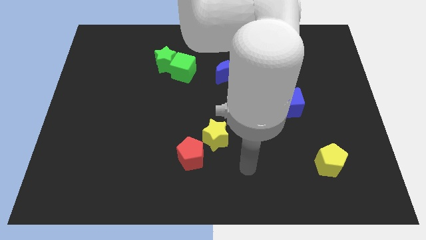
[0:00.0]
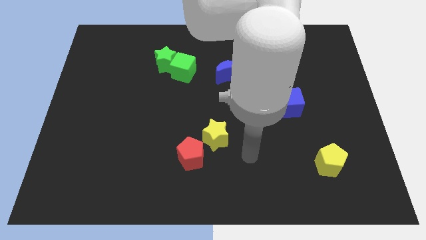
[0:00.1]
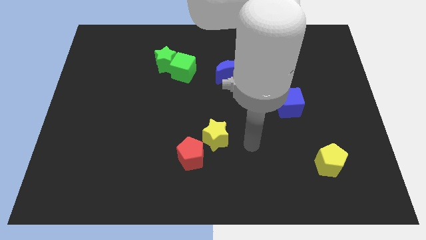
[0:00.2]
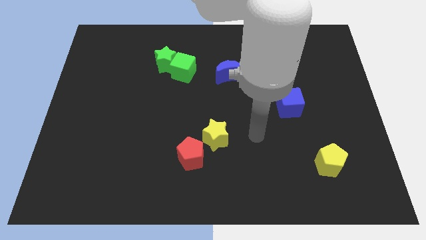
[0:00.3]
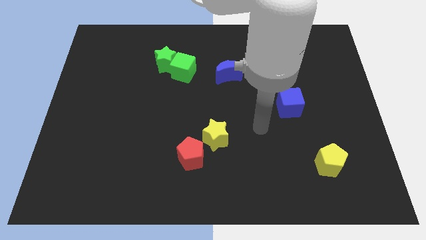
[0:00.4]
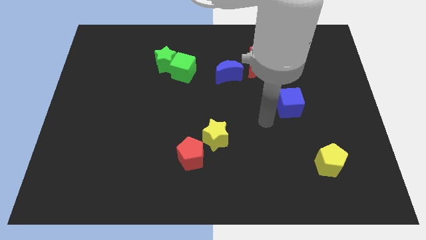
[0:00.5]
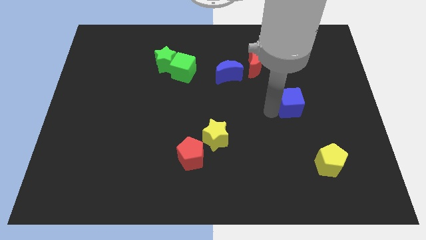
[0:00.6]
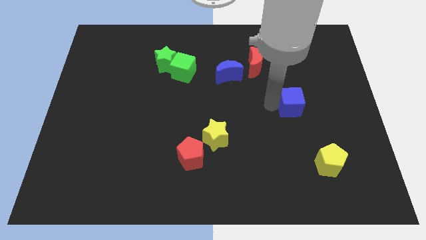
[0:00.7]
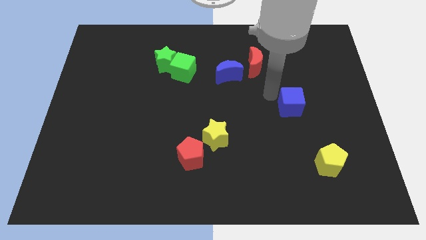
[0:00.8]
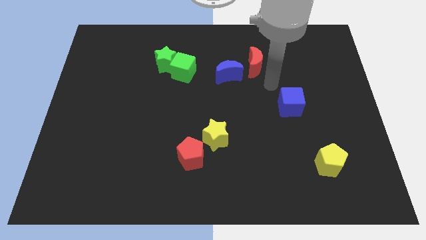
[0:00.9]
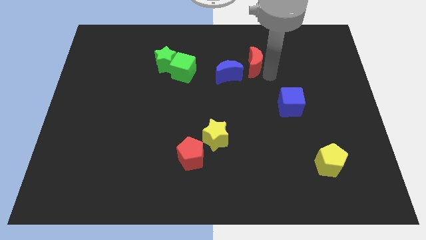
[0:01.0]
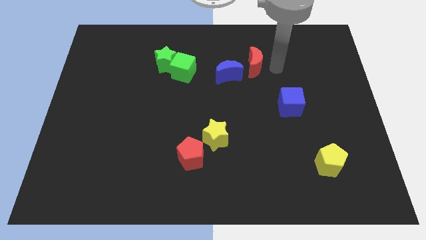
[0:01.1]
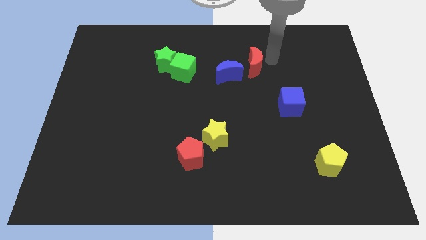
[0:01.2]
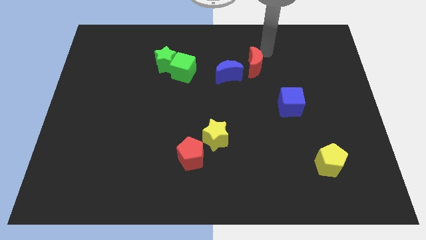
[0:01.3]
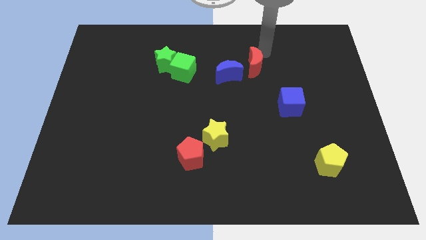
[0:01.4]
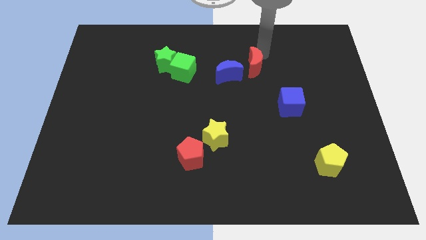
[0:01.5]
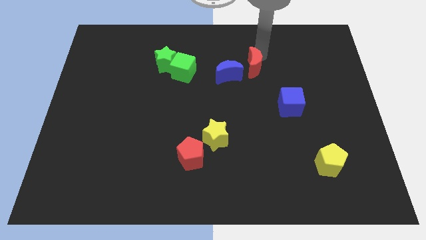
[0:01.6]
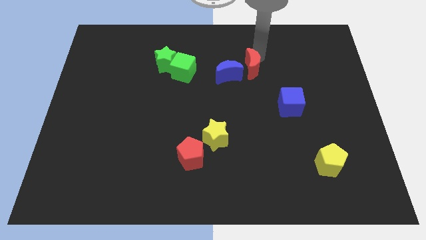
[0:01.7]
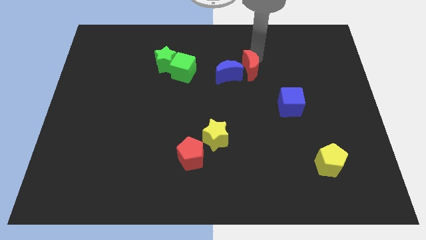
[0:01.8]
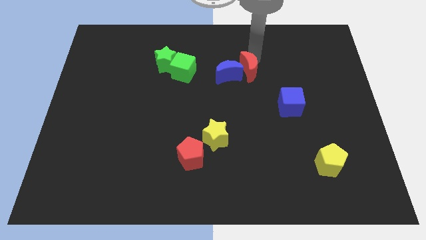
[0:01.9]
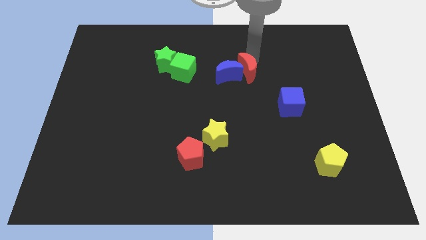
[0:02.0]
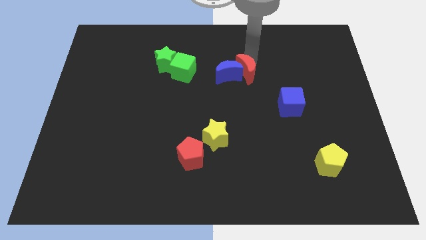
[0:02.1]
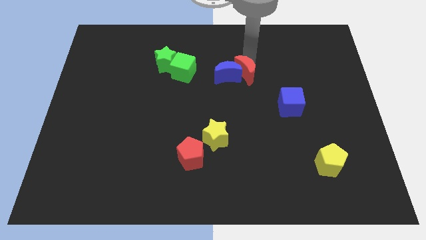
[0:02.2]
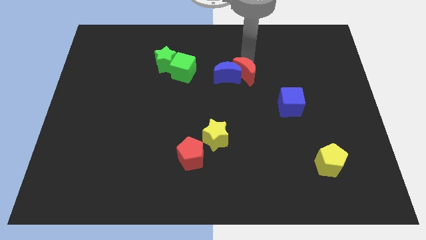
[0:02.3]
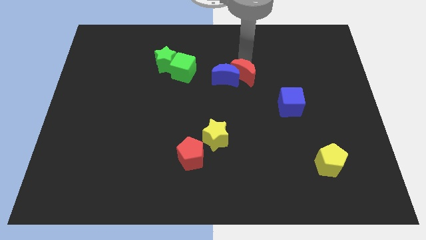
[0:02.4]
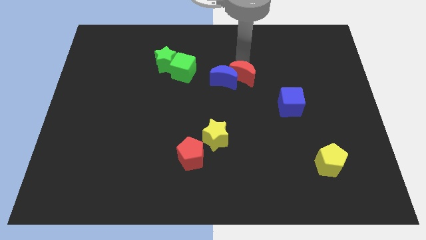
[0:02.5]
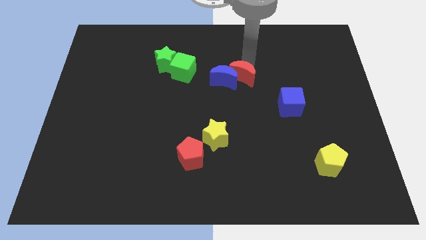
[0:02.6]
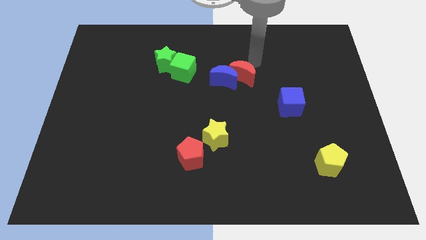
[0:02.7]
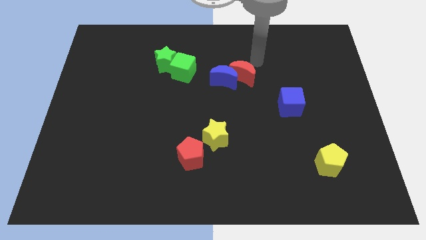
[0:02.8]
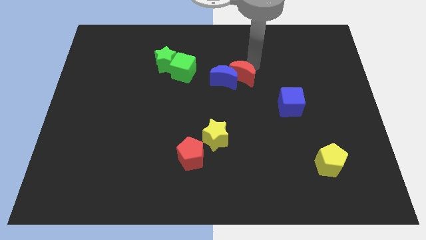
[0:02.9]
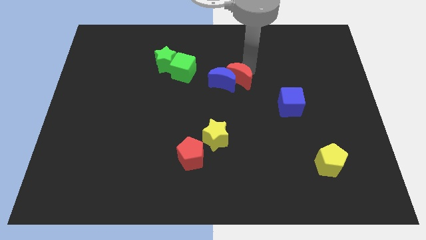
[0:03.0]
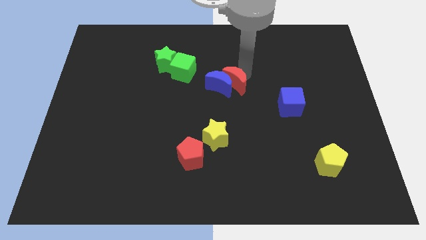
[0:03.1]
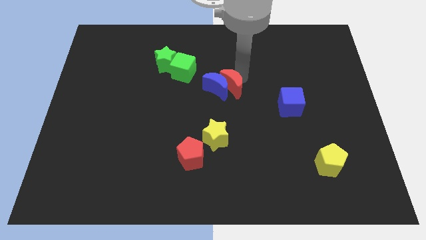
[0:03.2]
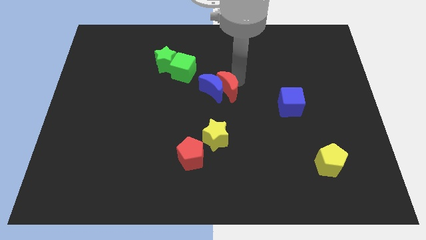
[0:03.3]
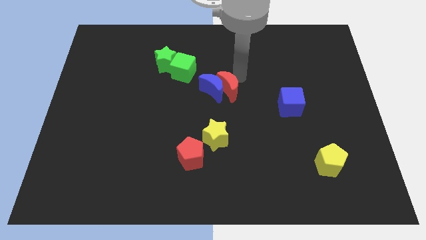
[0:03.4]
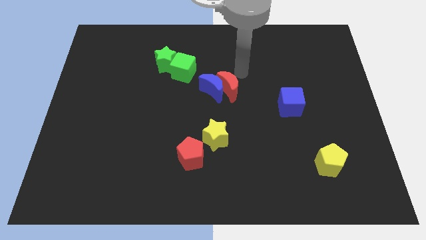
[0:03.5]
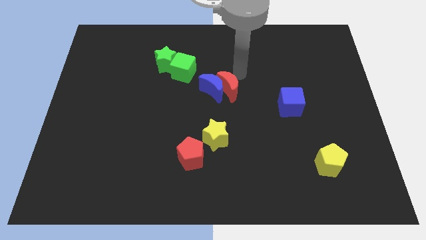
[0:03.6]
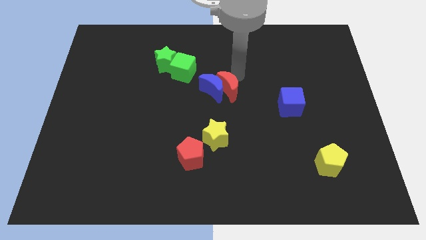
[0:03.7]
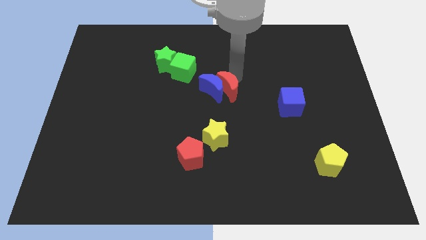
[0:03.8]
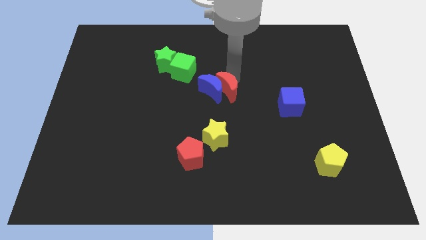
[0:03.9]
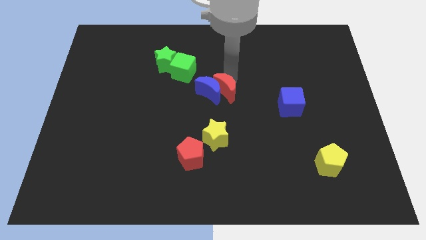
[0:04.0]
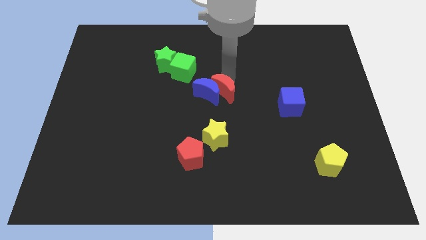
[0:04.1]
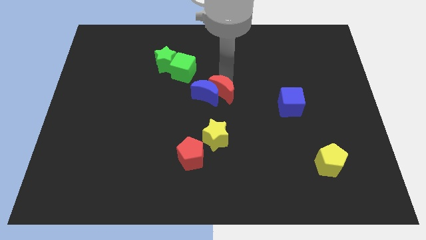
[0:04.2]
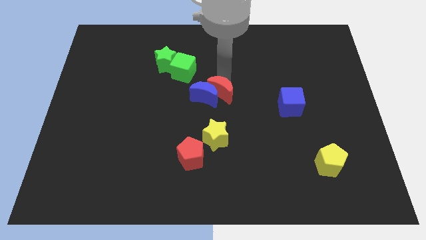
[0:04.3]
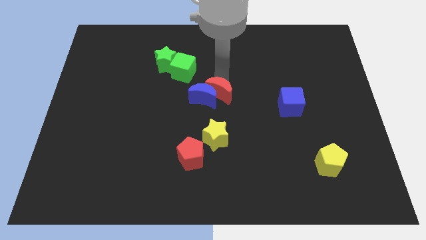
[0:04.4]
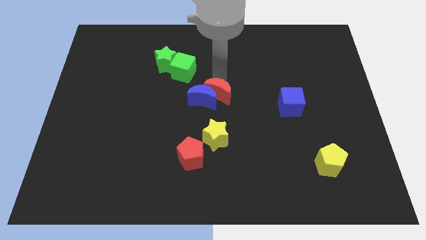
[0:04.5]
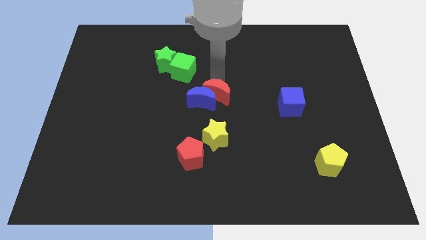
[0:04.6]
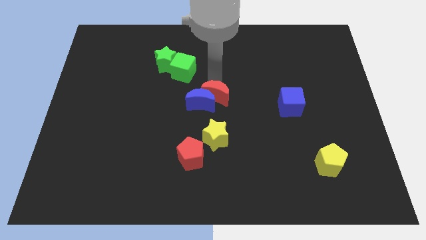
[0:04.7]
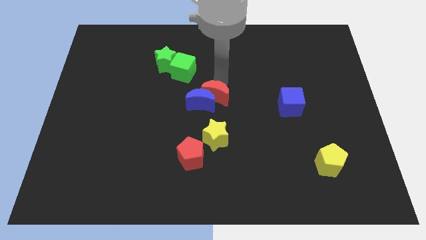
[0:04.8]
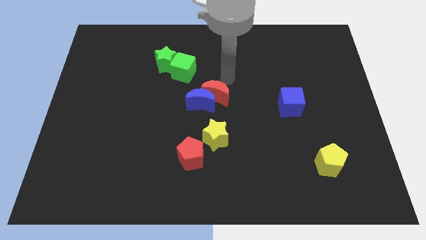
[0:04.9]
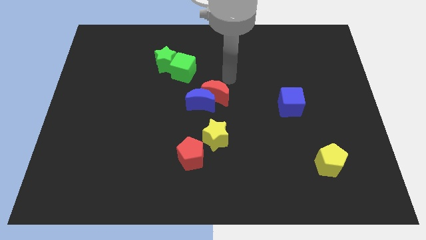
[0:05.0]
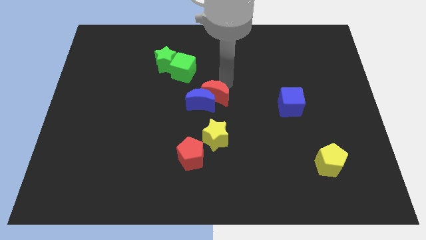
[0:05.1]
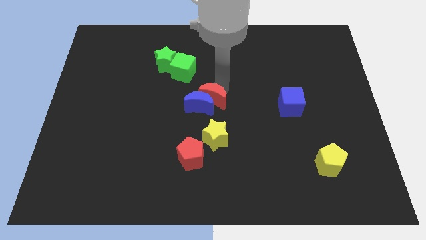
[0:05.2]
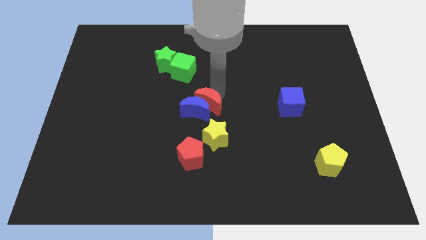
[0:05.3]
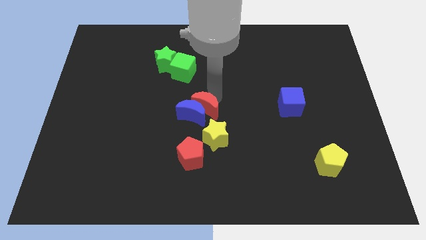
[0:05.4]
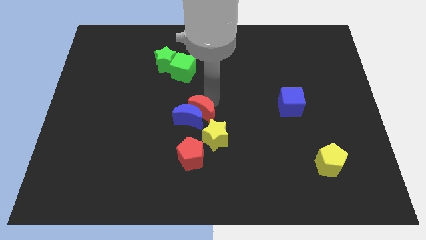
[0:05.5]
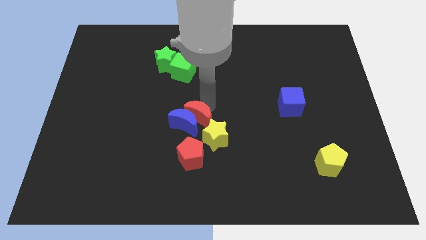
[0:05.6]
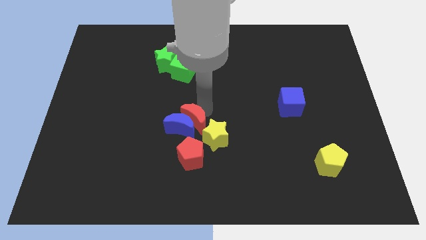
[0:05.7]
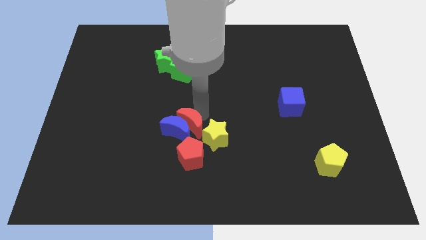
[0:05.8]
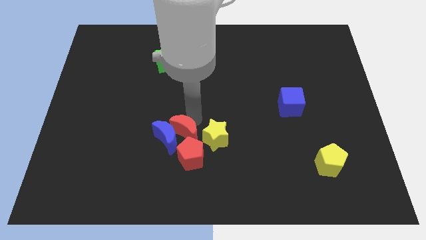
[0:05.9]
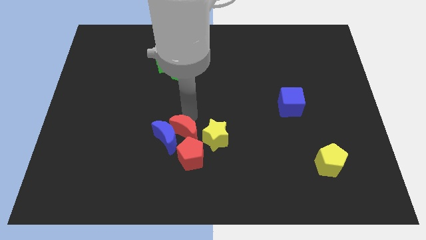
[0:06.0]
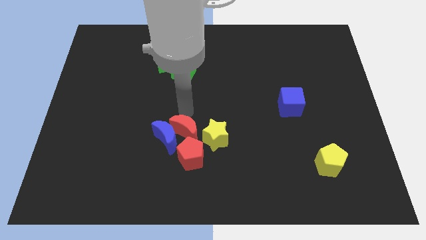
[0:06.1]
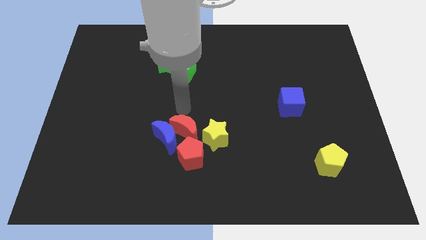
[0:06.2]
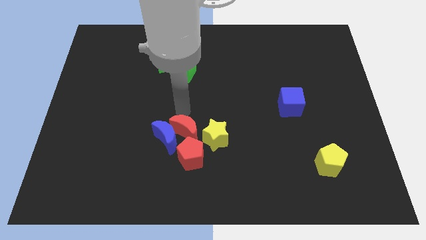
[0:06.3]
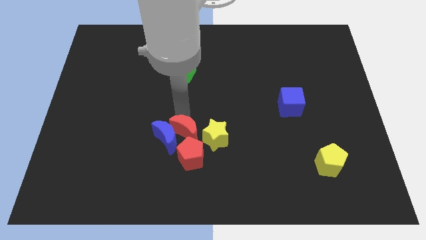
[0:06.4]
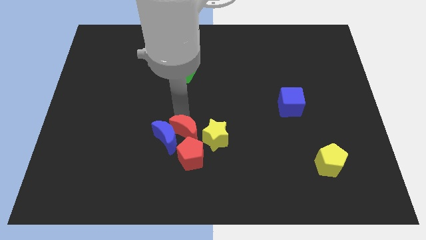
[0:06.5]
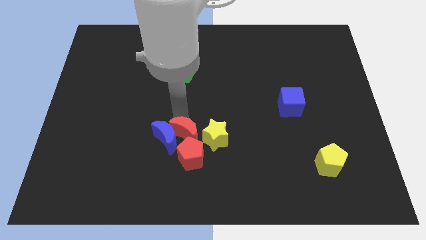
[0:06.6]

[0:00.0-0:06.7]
move the red moon to the red pentagon

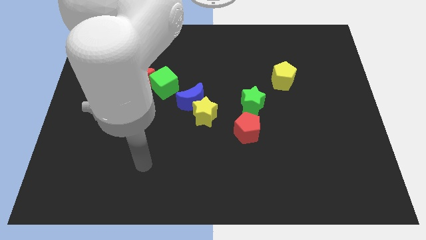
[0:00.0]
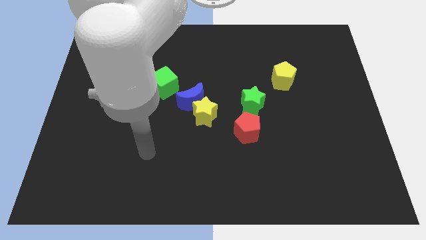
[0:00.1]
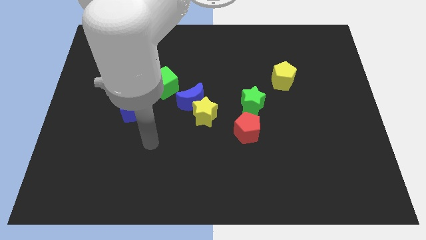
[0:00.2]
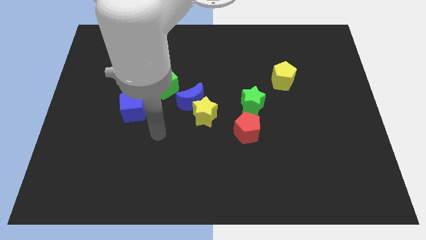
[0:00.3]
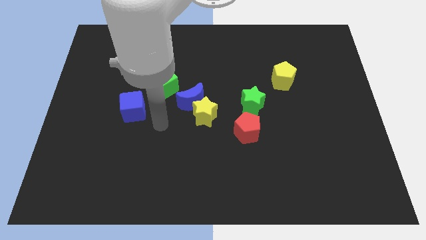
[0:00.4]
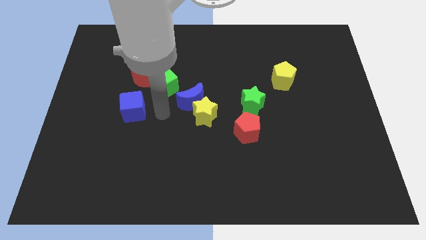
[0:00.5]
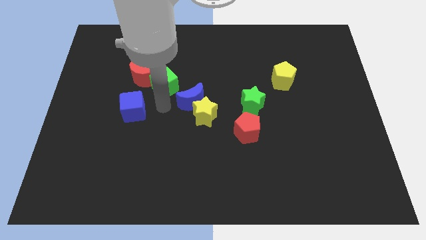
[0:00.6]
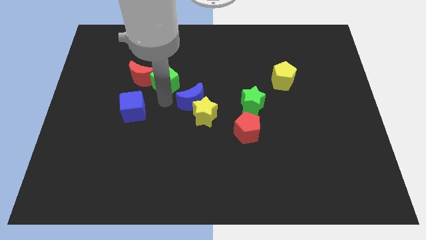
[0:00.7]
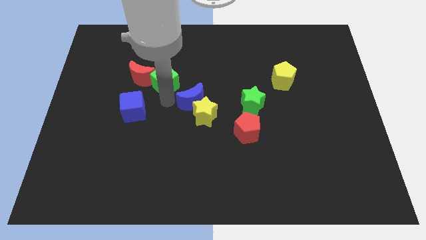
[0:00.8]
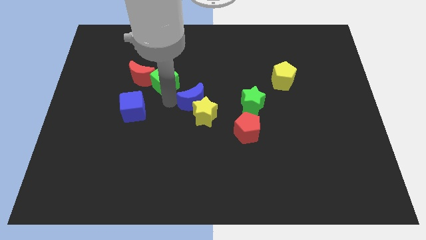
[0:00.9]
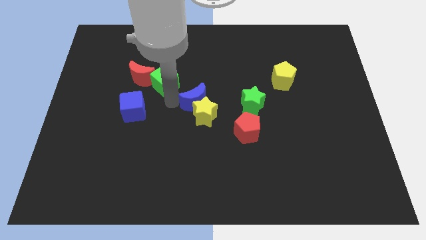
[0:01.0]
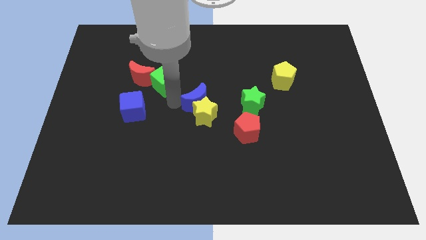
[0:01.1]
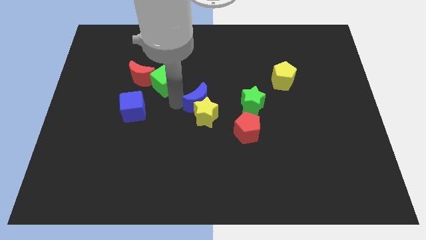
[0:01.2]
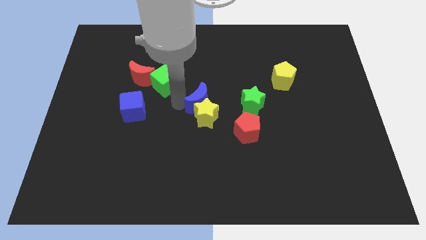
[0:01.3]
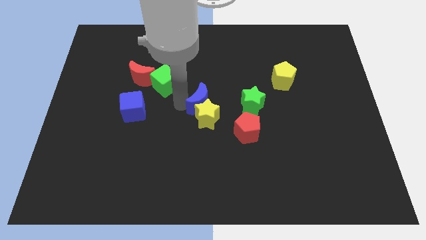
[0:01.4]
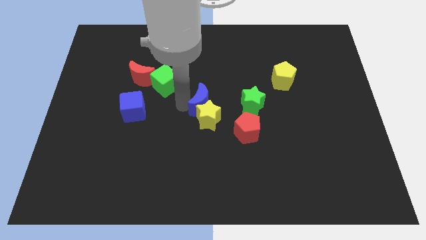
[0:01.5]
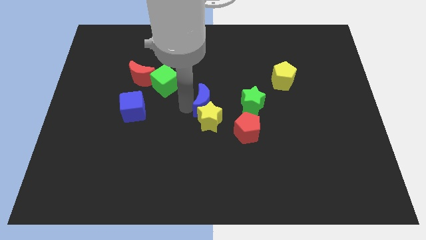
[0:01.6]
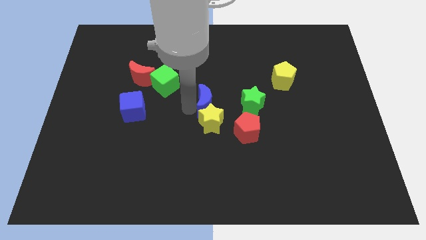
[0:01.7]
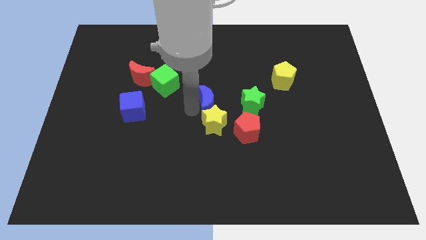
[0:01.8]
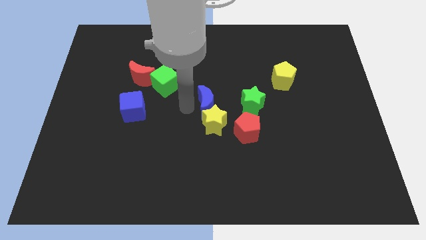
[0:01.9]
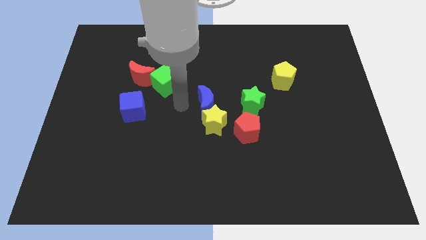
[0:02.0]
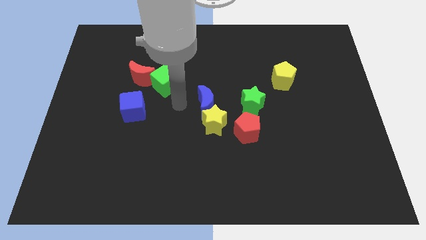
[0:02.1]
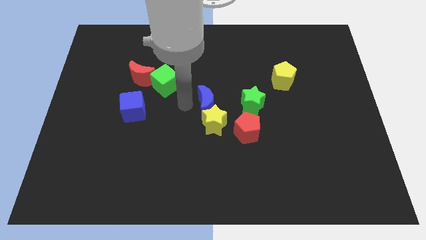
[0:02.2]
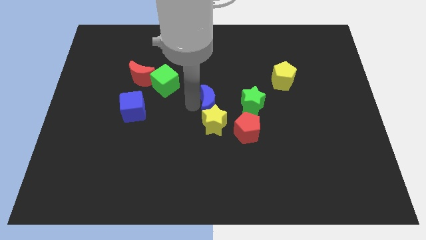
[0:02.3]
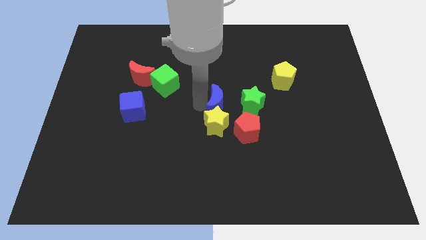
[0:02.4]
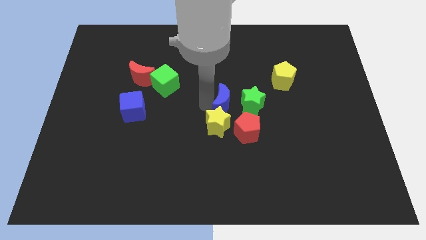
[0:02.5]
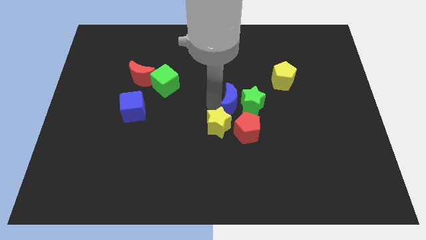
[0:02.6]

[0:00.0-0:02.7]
move the blue moon next to the green star
